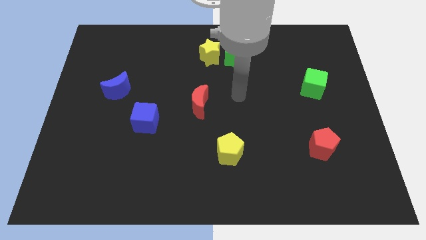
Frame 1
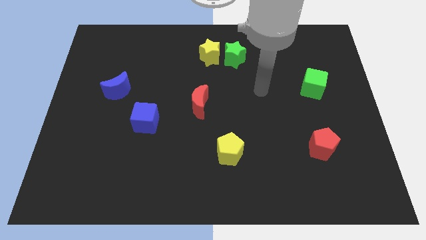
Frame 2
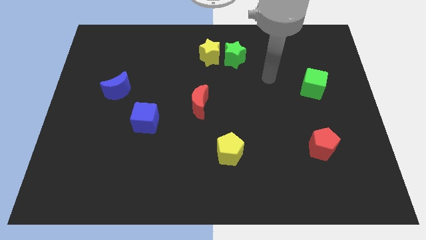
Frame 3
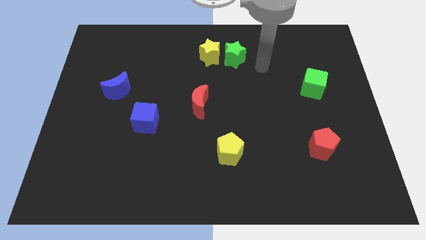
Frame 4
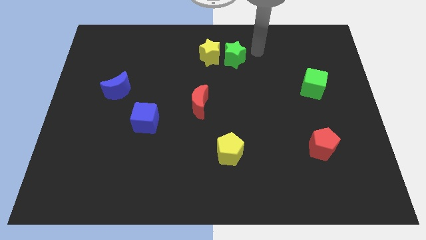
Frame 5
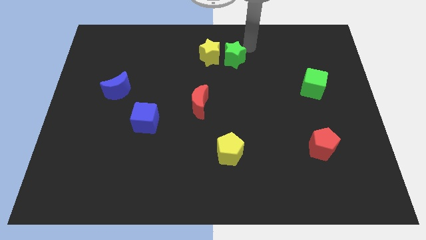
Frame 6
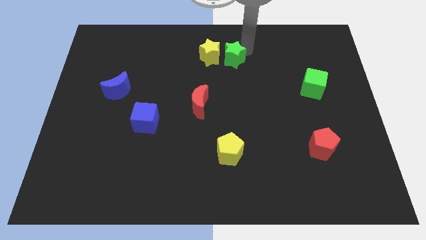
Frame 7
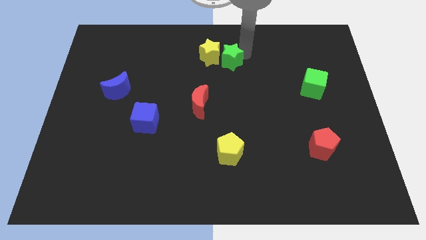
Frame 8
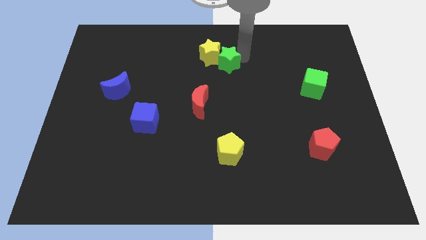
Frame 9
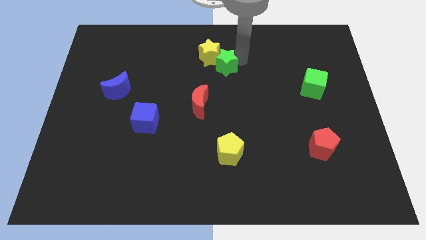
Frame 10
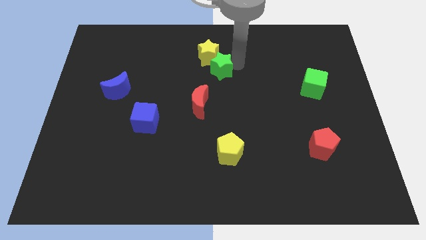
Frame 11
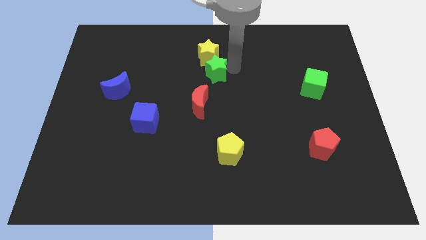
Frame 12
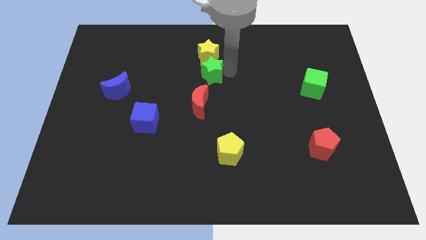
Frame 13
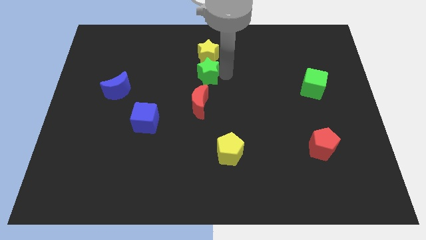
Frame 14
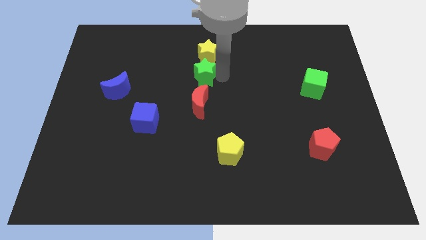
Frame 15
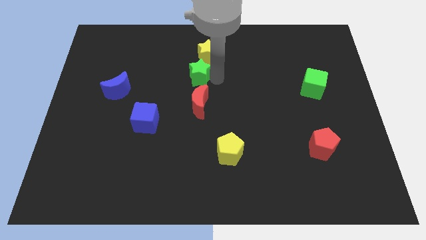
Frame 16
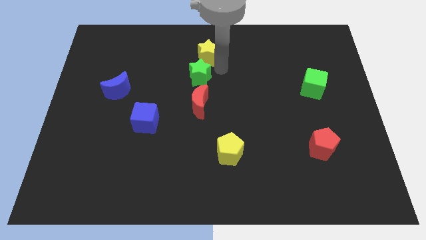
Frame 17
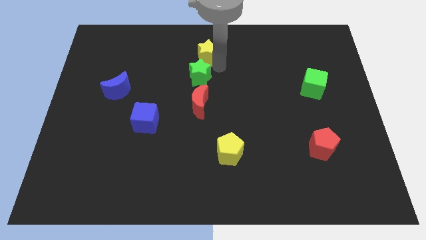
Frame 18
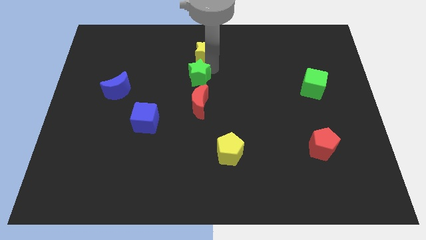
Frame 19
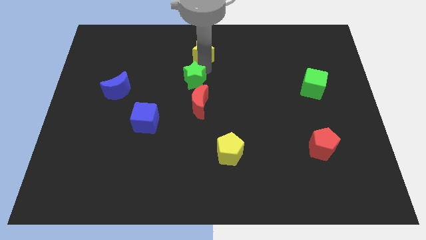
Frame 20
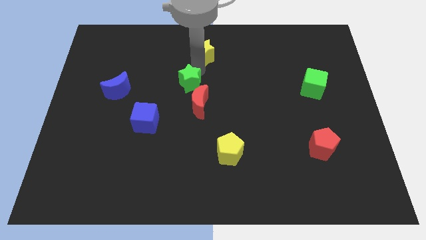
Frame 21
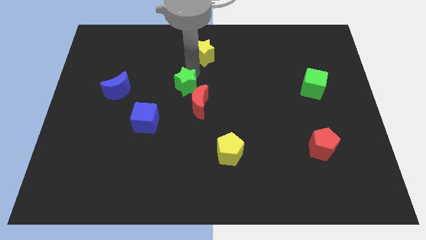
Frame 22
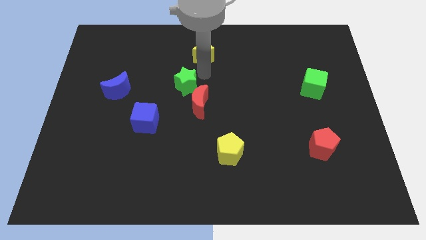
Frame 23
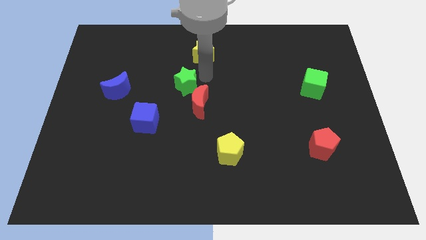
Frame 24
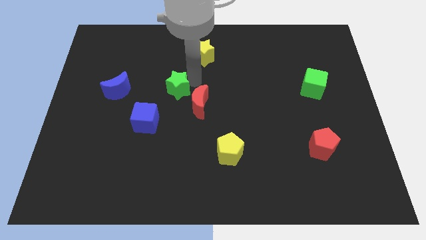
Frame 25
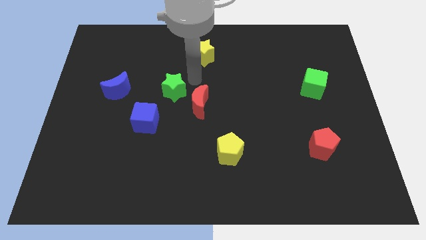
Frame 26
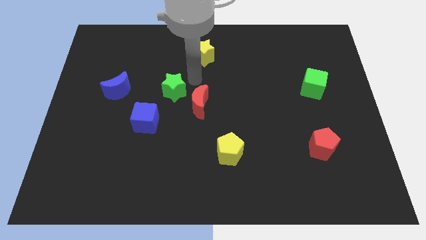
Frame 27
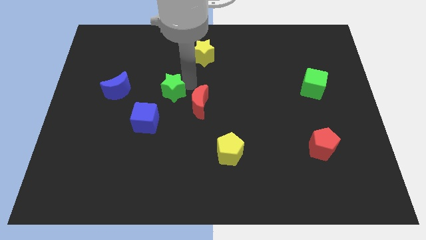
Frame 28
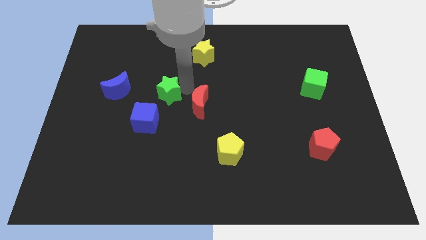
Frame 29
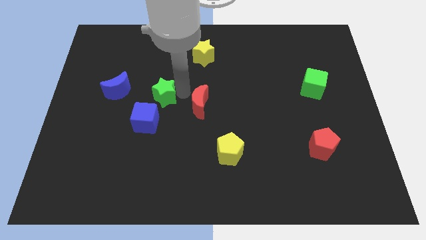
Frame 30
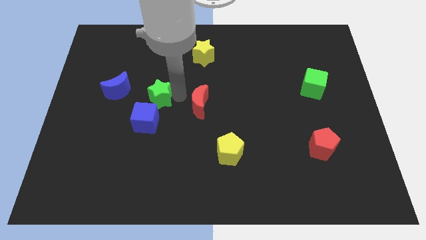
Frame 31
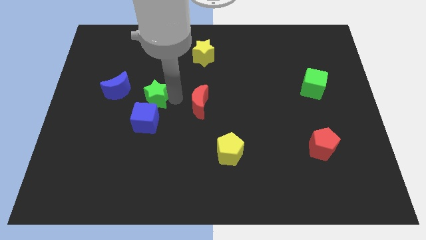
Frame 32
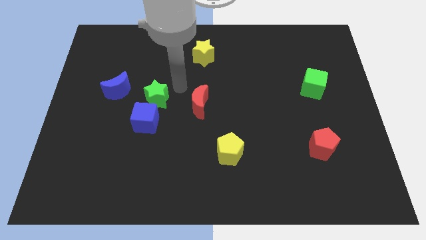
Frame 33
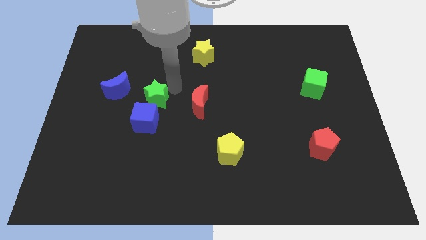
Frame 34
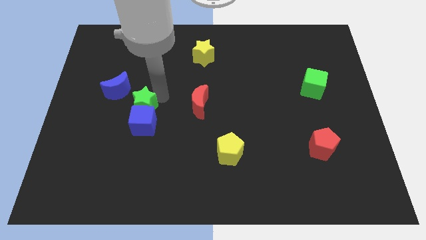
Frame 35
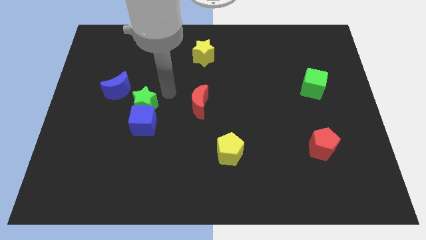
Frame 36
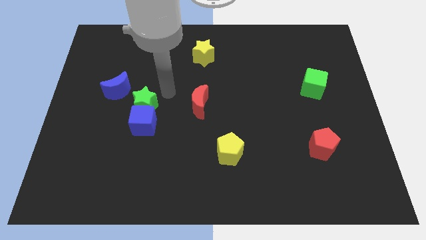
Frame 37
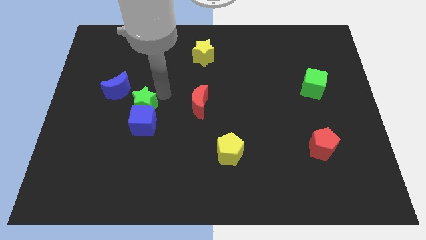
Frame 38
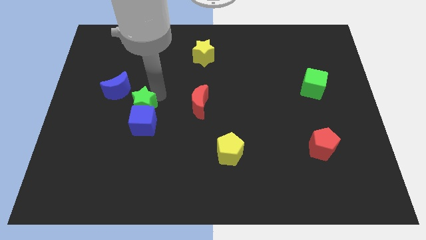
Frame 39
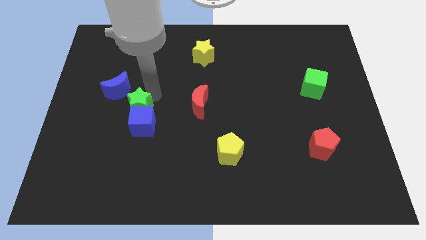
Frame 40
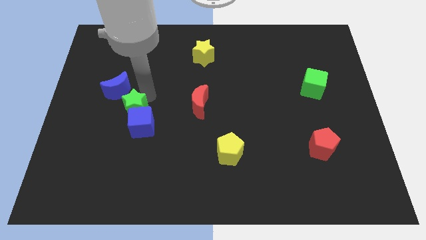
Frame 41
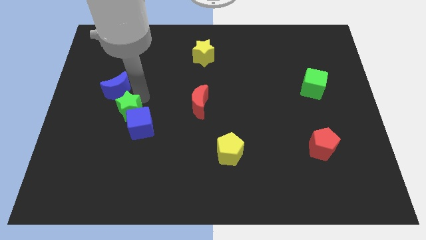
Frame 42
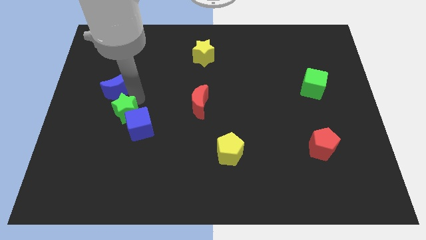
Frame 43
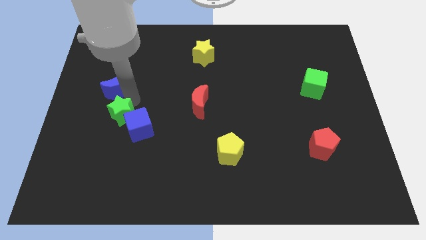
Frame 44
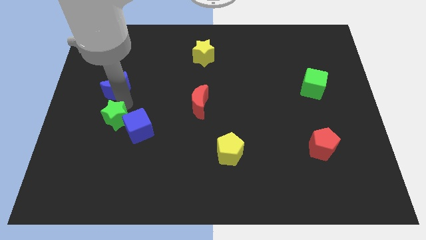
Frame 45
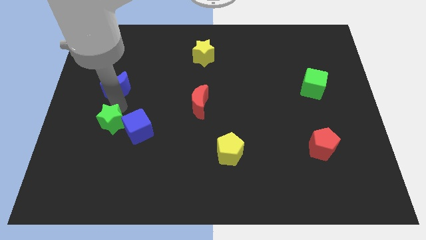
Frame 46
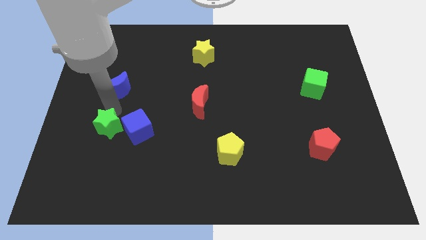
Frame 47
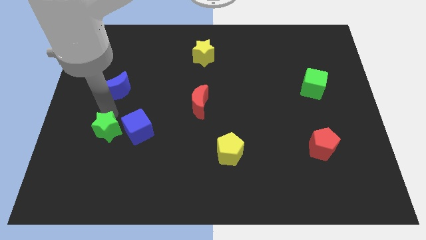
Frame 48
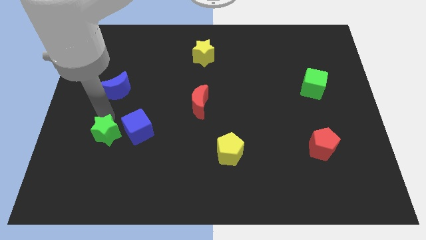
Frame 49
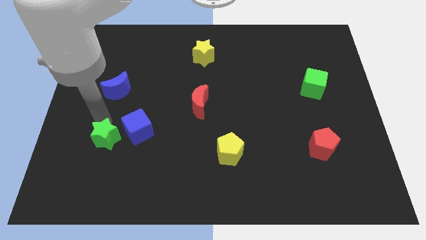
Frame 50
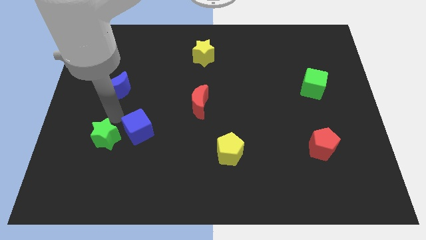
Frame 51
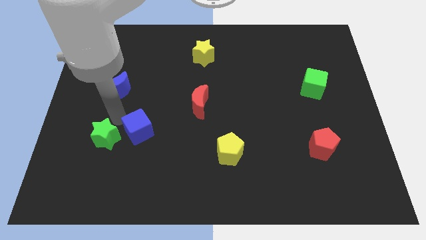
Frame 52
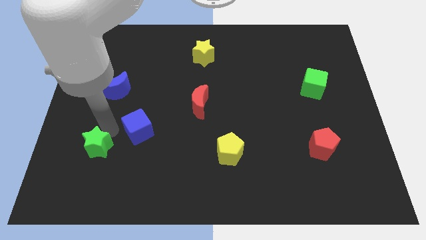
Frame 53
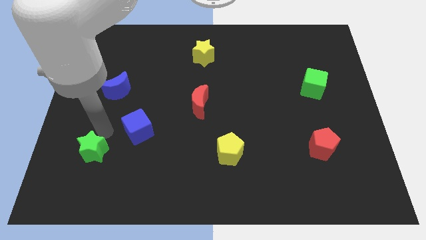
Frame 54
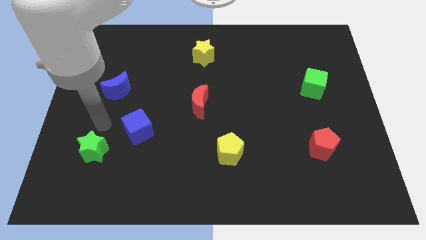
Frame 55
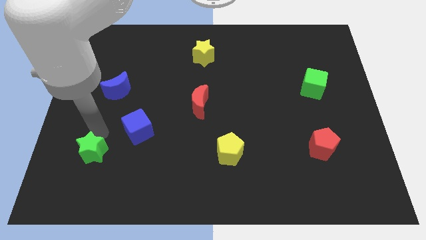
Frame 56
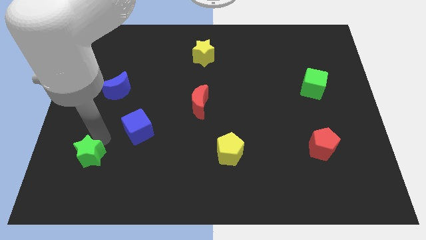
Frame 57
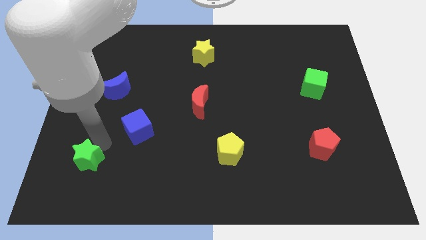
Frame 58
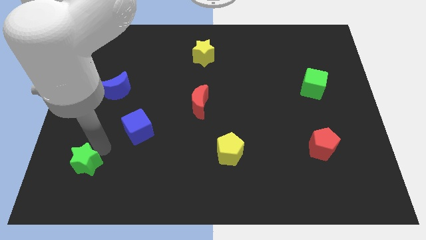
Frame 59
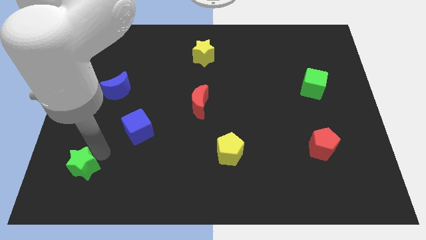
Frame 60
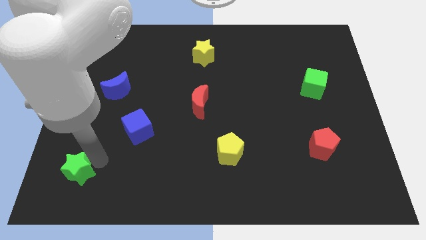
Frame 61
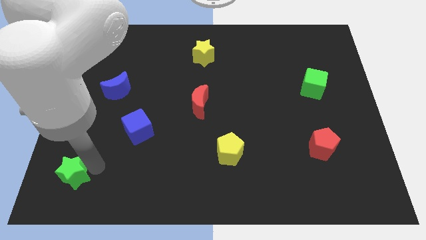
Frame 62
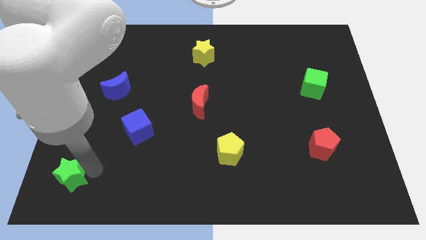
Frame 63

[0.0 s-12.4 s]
slide the green star to the bottom left of the board

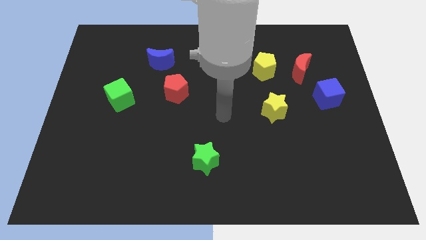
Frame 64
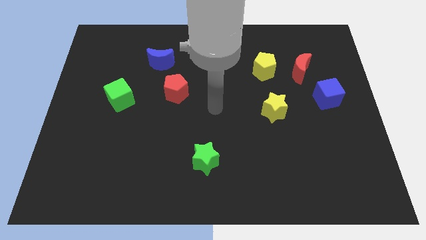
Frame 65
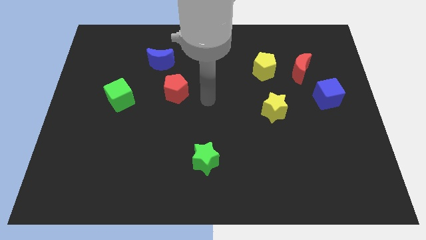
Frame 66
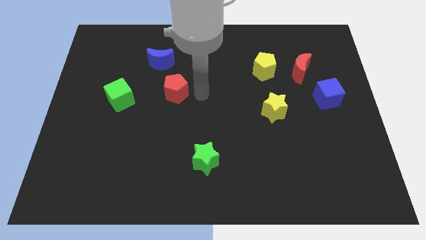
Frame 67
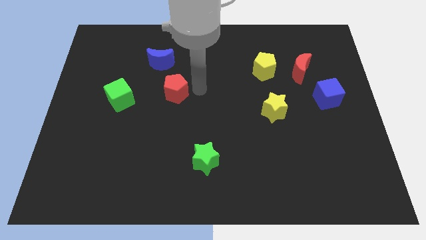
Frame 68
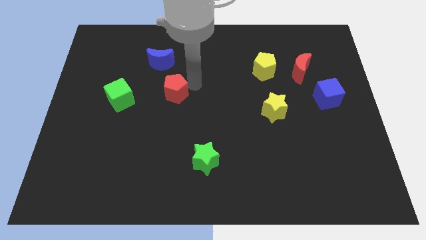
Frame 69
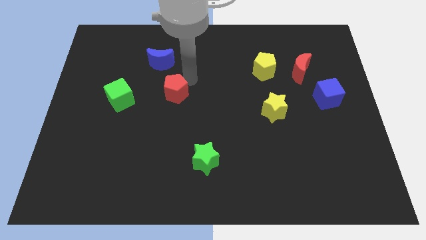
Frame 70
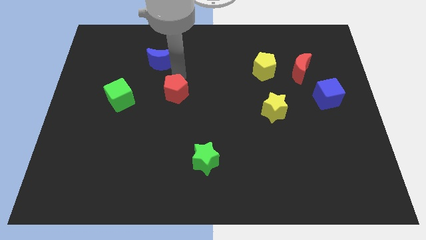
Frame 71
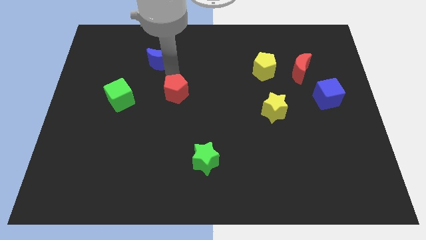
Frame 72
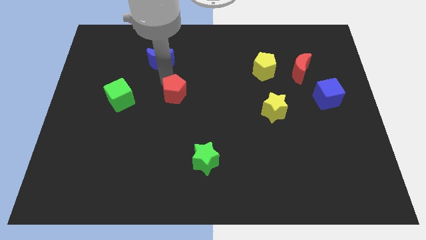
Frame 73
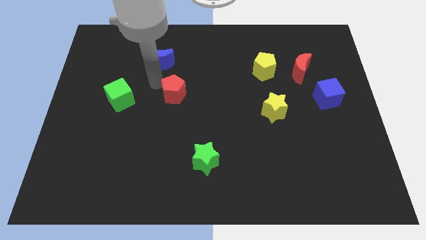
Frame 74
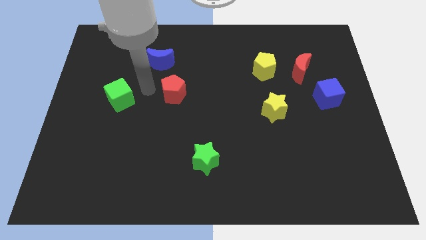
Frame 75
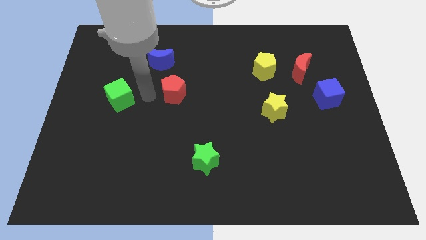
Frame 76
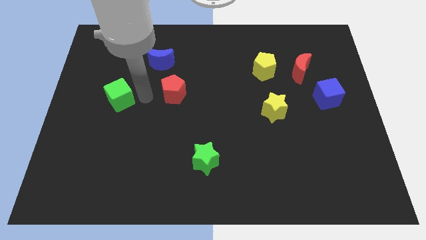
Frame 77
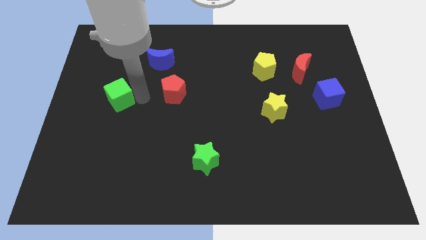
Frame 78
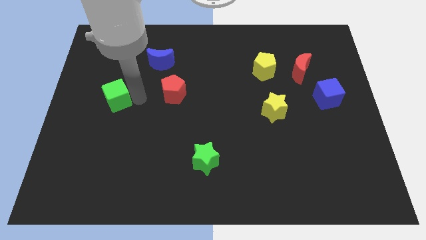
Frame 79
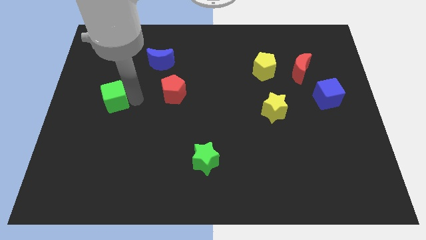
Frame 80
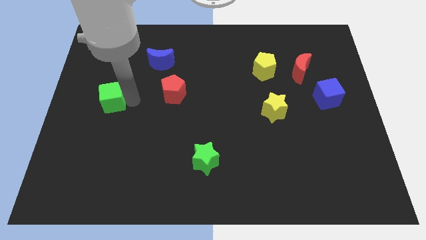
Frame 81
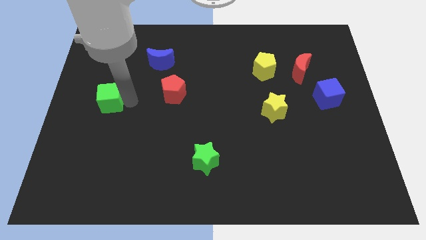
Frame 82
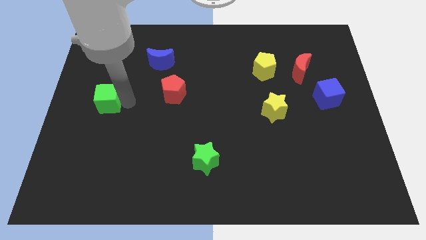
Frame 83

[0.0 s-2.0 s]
push the green cube to the left side
